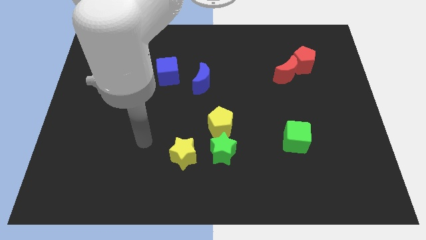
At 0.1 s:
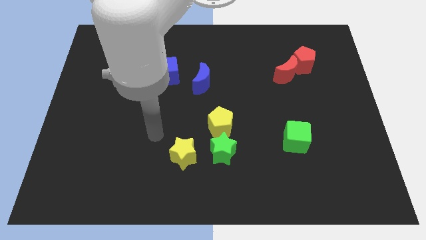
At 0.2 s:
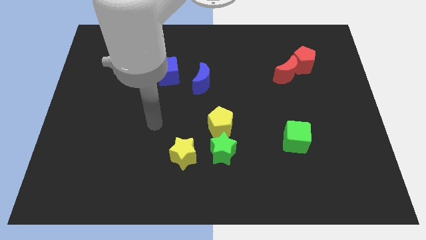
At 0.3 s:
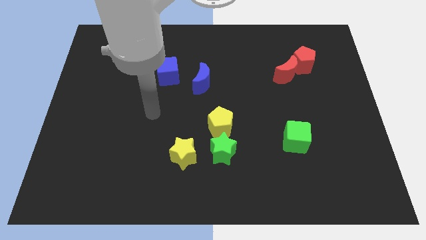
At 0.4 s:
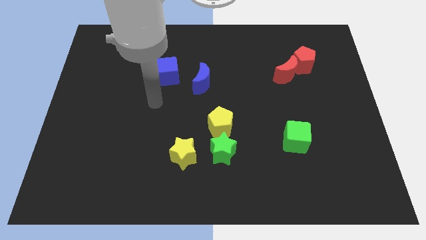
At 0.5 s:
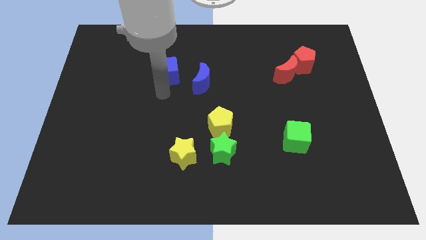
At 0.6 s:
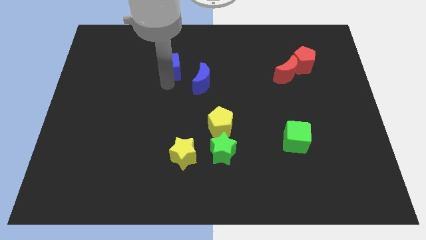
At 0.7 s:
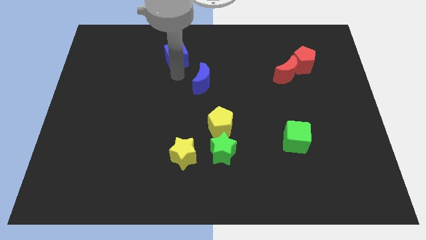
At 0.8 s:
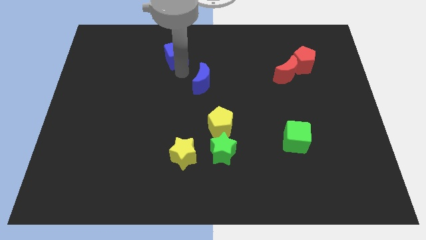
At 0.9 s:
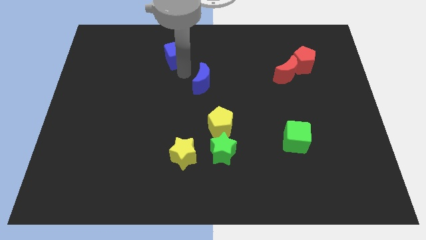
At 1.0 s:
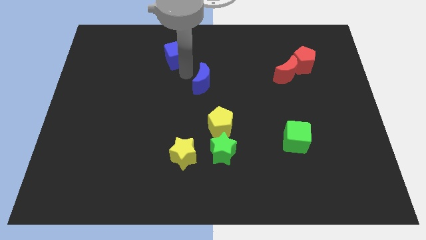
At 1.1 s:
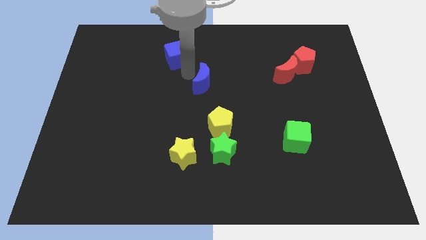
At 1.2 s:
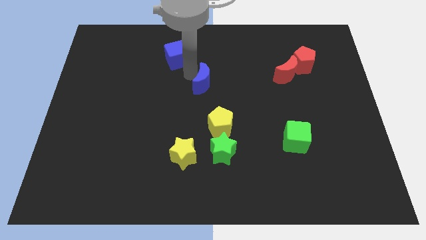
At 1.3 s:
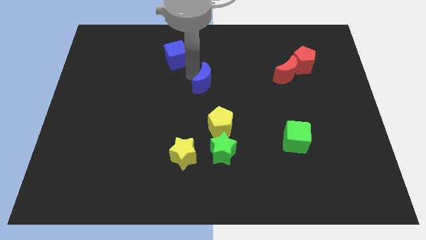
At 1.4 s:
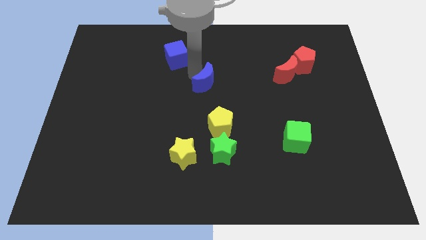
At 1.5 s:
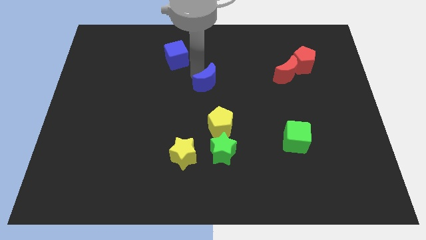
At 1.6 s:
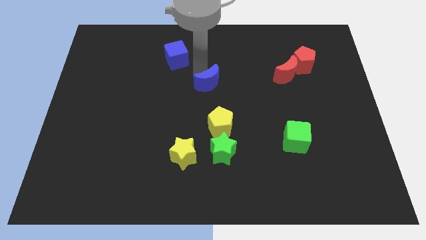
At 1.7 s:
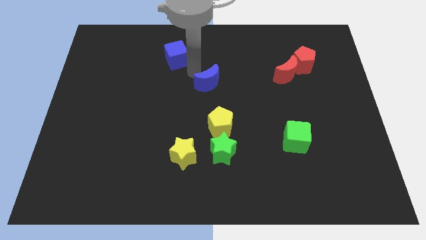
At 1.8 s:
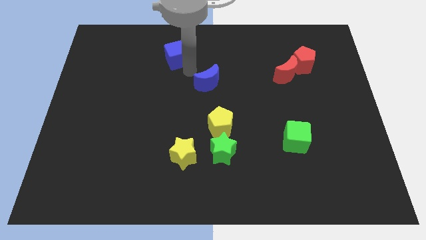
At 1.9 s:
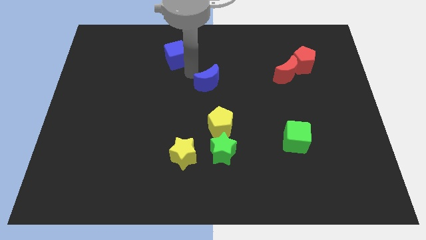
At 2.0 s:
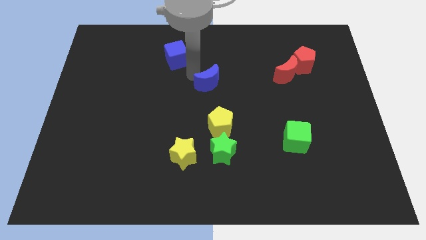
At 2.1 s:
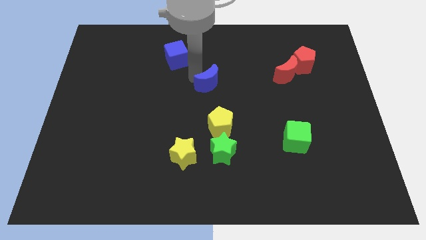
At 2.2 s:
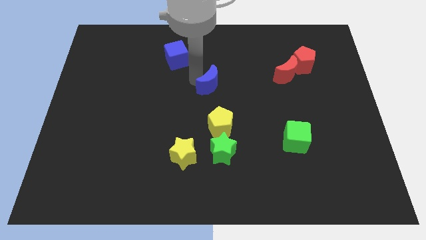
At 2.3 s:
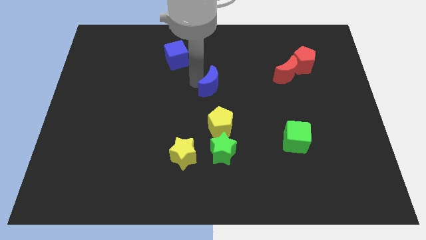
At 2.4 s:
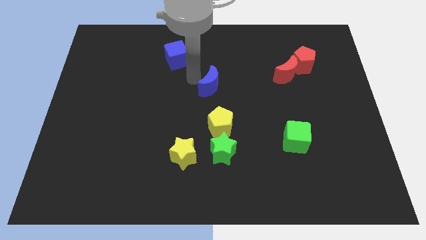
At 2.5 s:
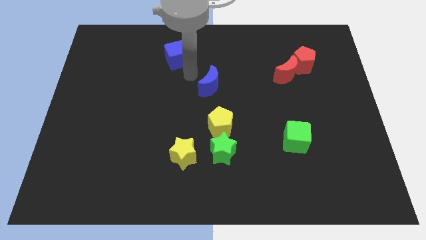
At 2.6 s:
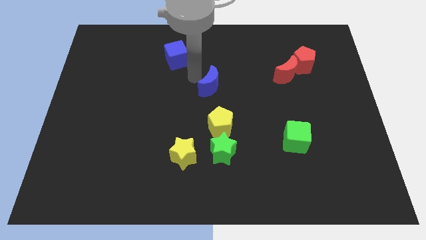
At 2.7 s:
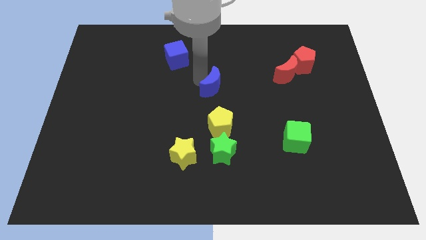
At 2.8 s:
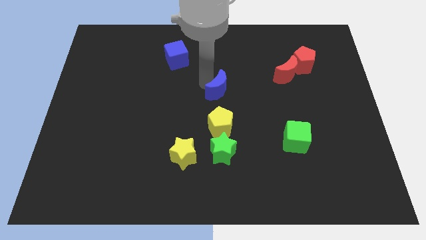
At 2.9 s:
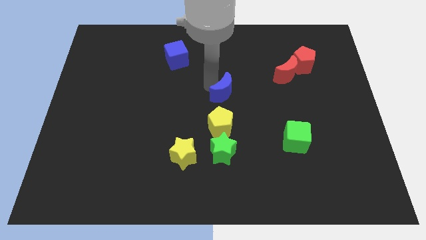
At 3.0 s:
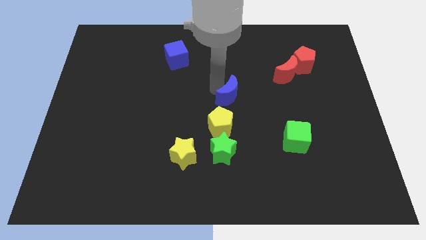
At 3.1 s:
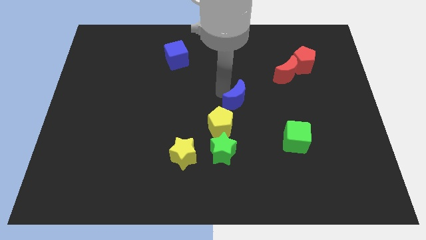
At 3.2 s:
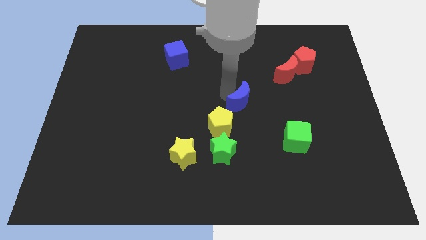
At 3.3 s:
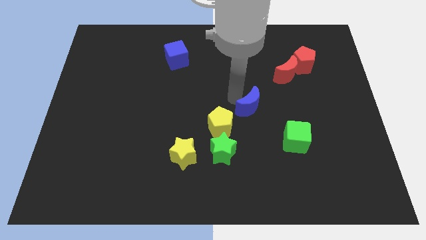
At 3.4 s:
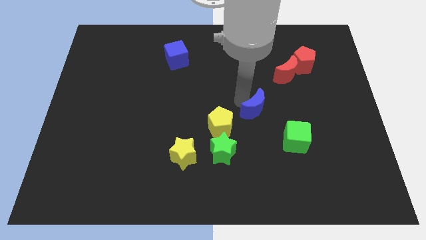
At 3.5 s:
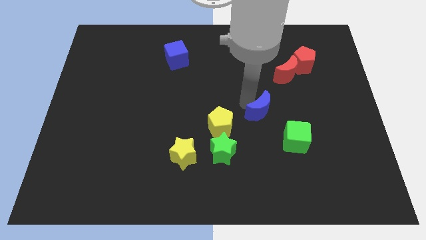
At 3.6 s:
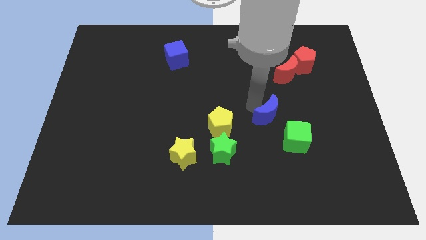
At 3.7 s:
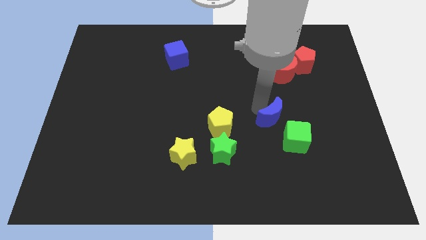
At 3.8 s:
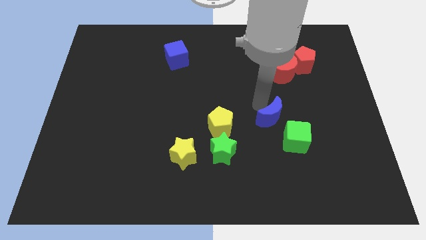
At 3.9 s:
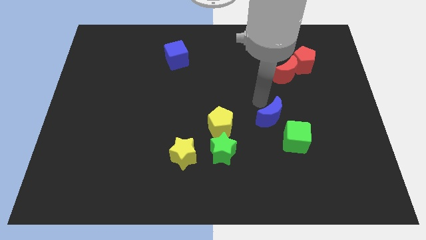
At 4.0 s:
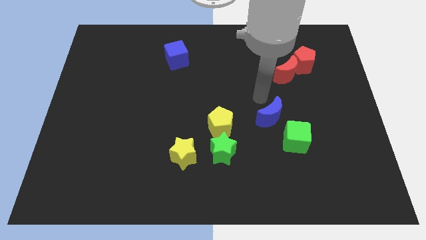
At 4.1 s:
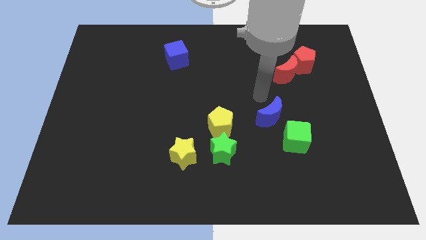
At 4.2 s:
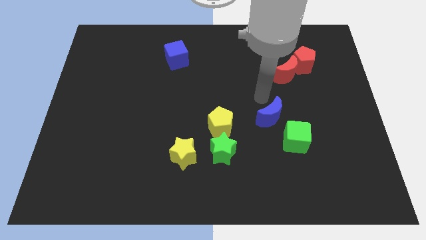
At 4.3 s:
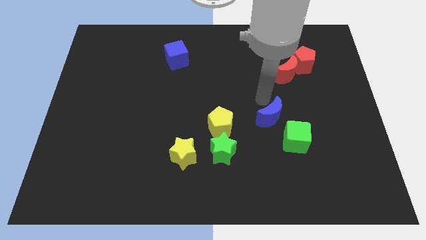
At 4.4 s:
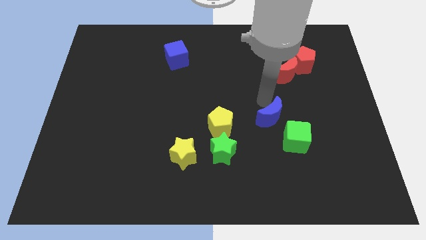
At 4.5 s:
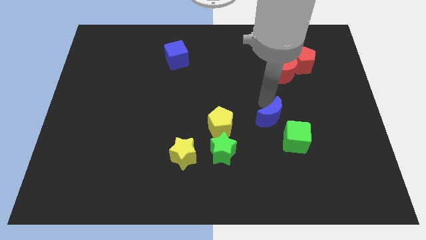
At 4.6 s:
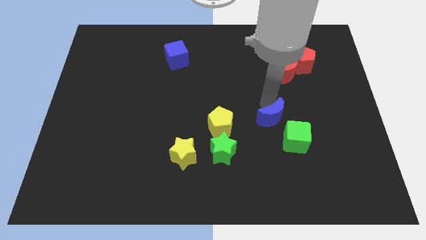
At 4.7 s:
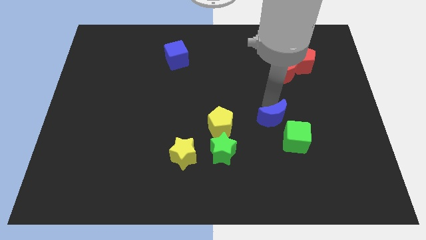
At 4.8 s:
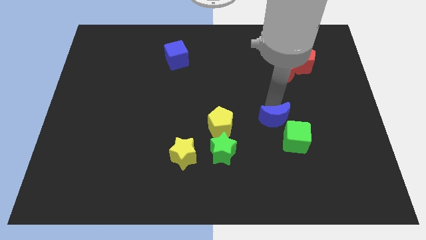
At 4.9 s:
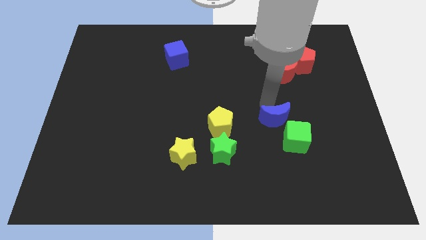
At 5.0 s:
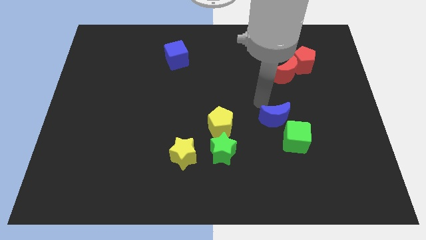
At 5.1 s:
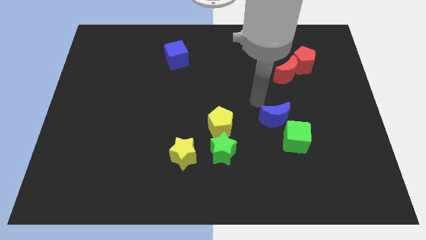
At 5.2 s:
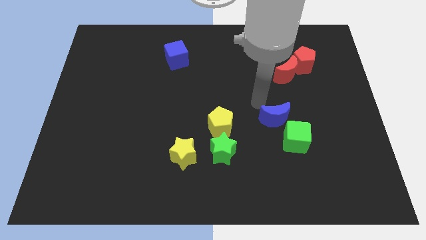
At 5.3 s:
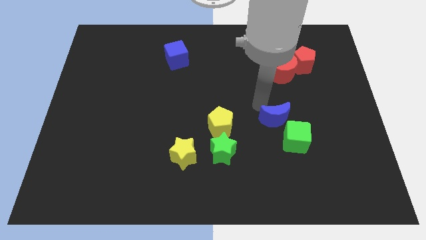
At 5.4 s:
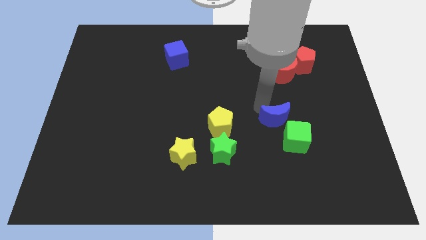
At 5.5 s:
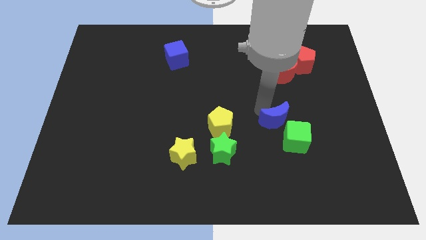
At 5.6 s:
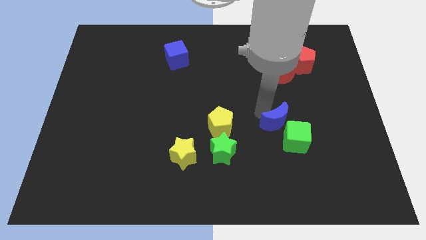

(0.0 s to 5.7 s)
slide the blue moon next to the green cube

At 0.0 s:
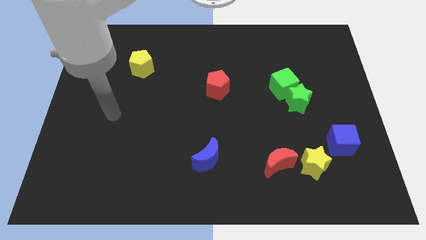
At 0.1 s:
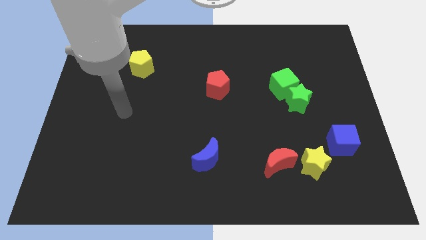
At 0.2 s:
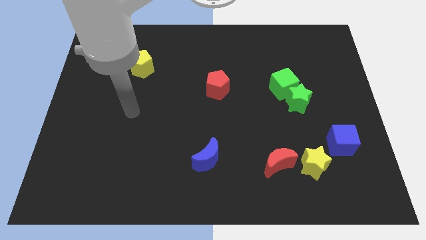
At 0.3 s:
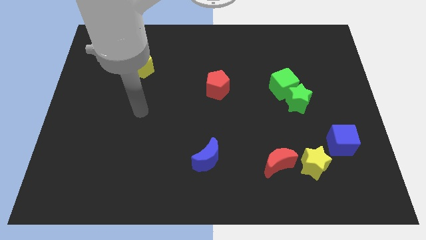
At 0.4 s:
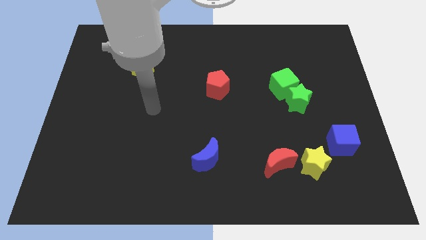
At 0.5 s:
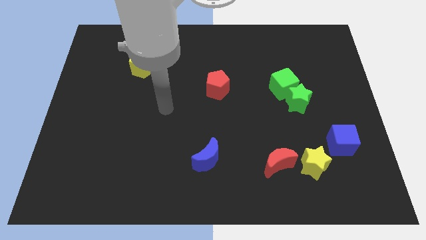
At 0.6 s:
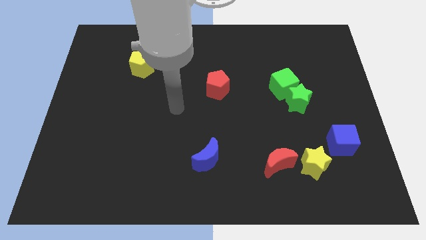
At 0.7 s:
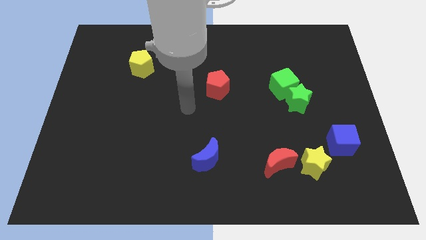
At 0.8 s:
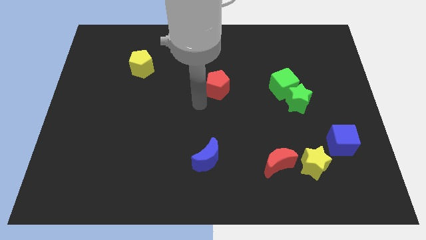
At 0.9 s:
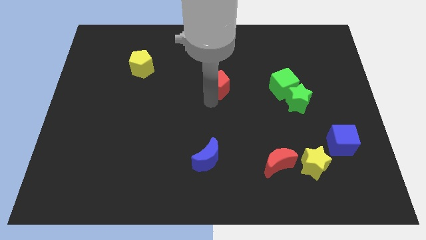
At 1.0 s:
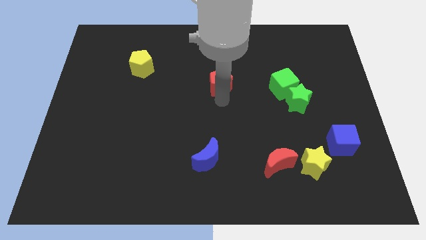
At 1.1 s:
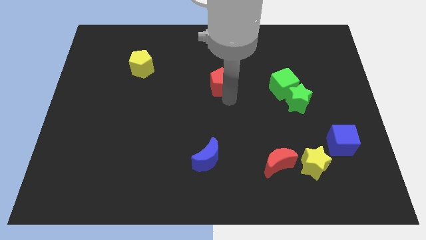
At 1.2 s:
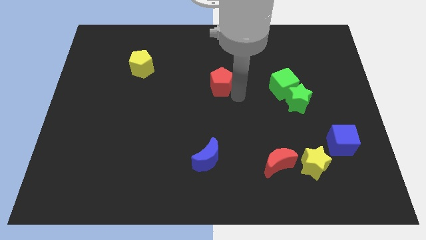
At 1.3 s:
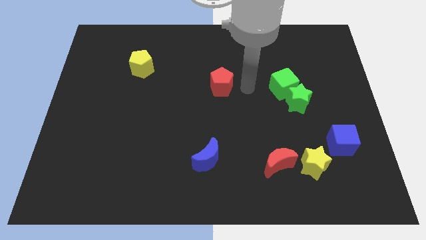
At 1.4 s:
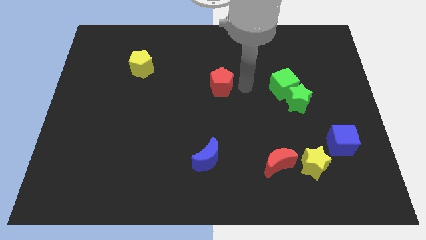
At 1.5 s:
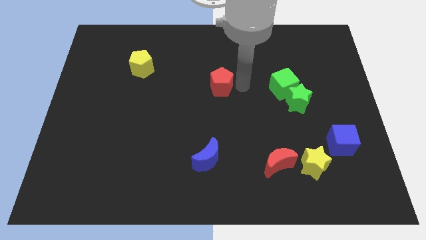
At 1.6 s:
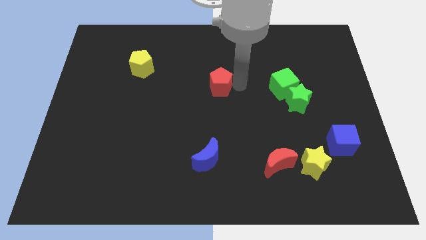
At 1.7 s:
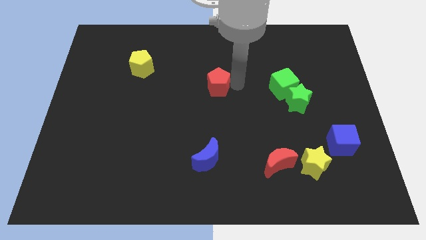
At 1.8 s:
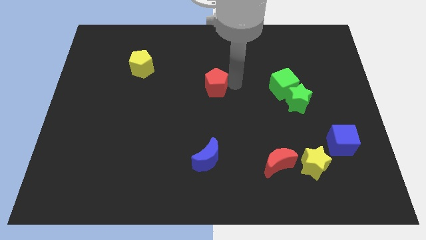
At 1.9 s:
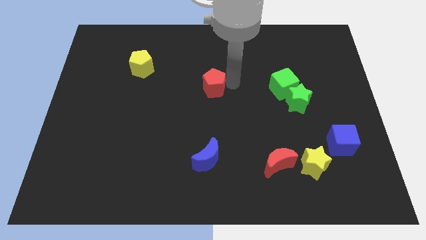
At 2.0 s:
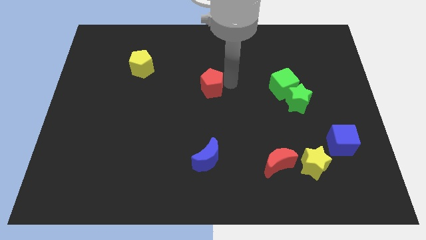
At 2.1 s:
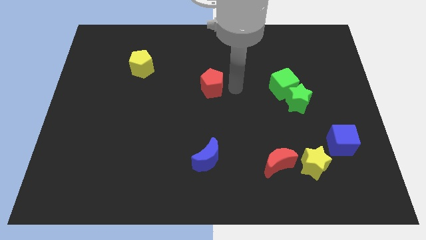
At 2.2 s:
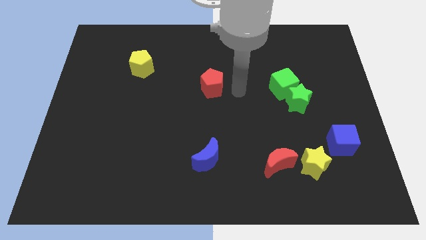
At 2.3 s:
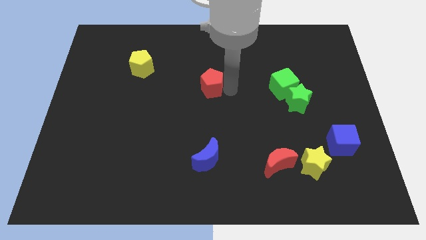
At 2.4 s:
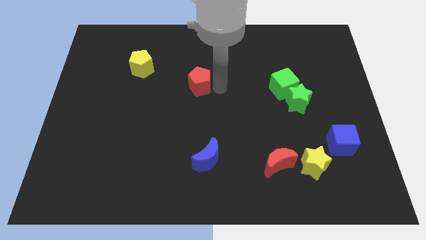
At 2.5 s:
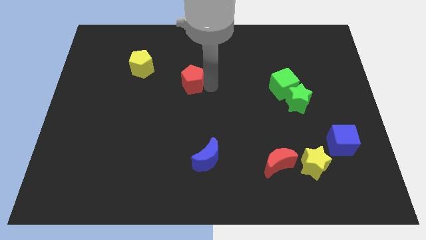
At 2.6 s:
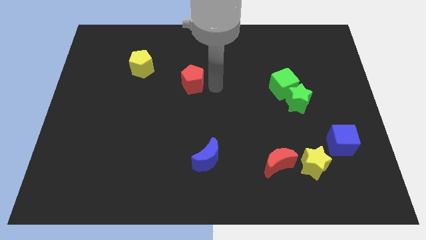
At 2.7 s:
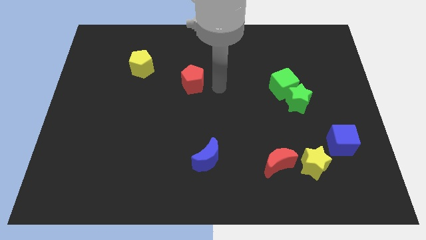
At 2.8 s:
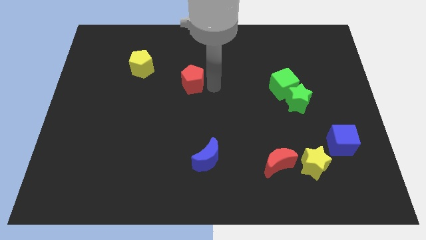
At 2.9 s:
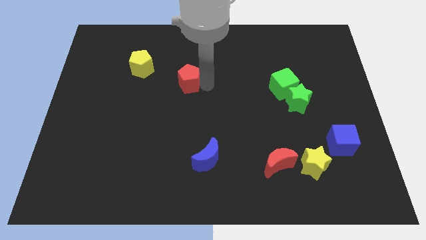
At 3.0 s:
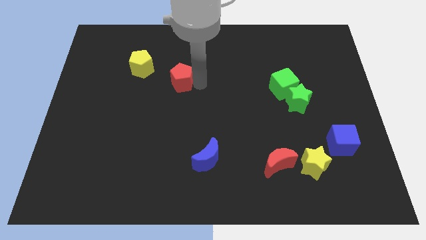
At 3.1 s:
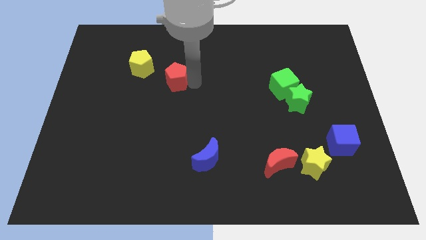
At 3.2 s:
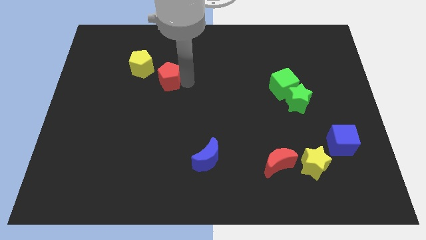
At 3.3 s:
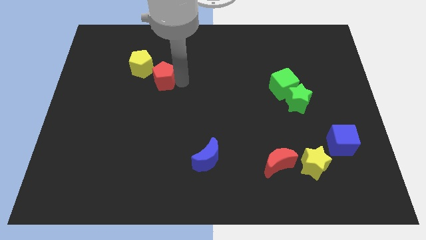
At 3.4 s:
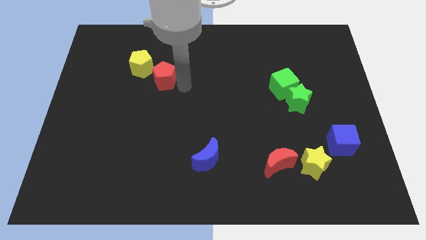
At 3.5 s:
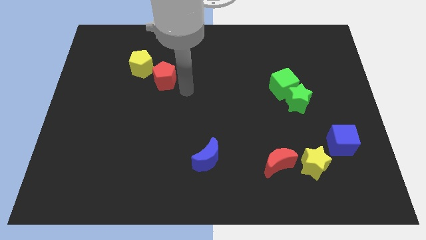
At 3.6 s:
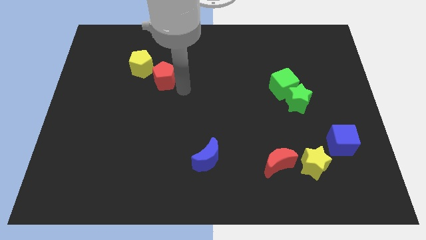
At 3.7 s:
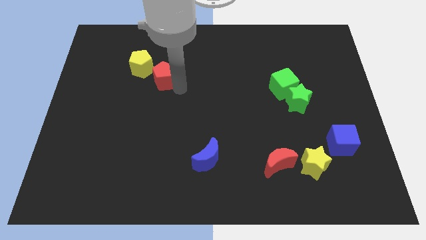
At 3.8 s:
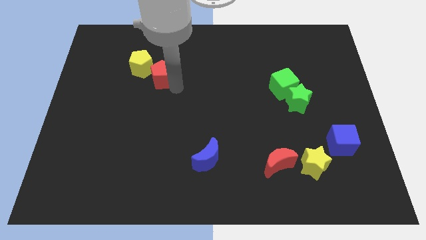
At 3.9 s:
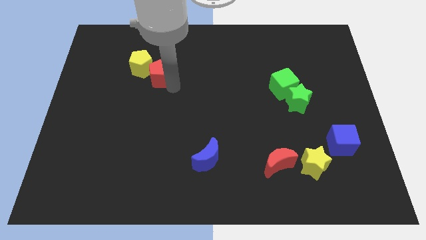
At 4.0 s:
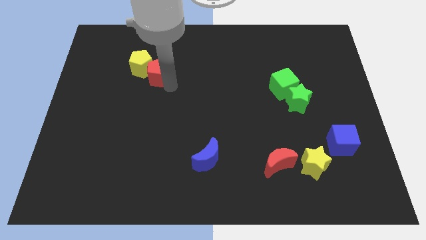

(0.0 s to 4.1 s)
move the red pentagon towards the yellow pentagon
